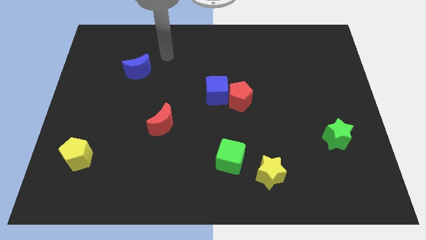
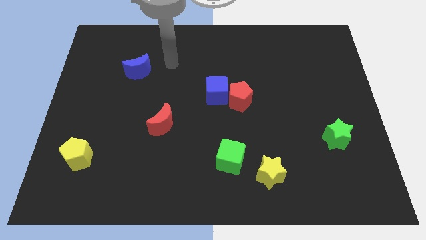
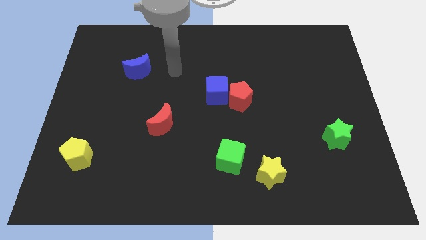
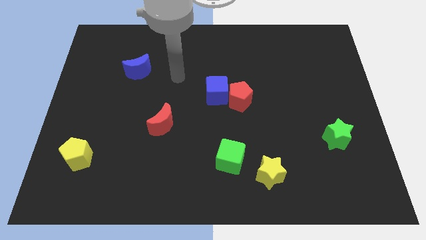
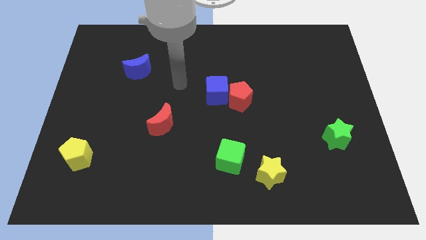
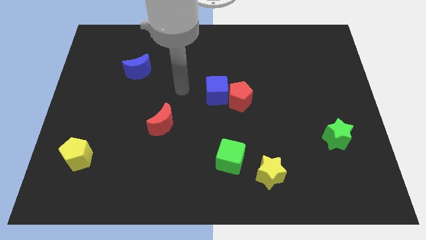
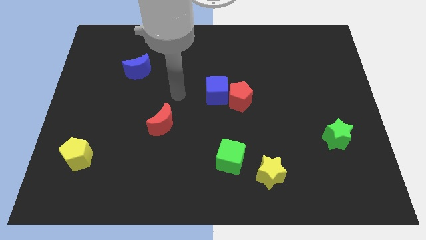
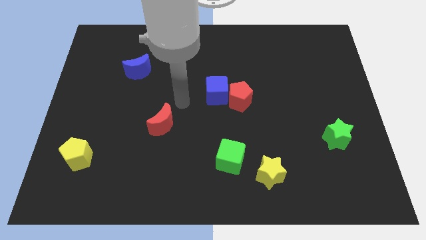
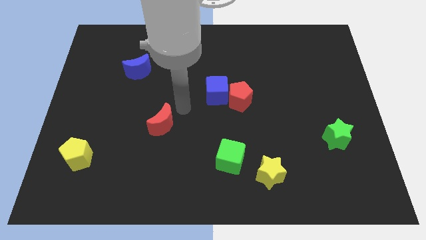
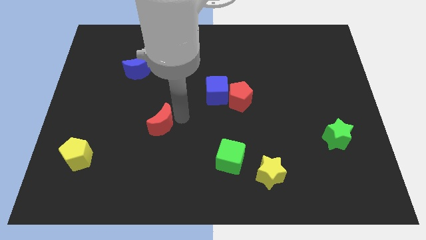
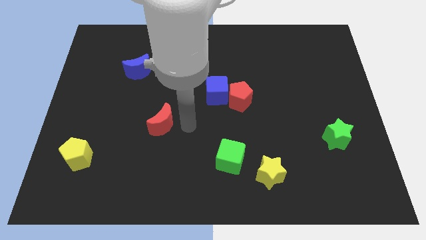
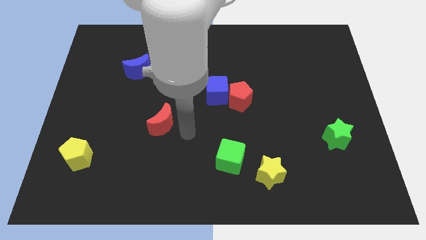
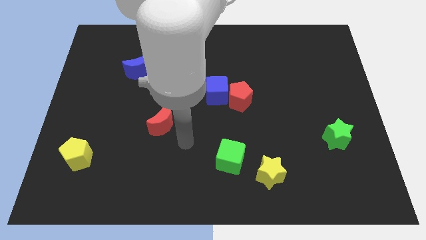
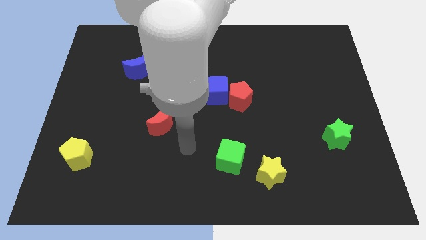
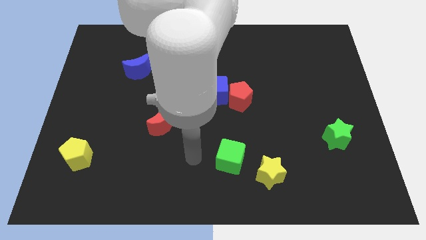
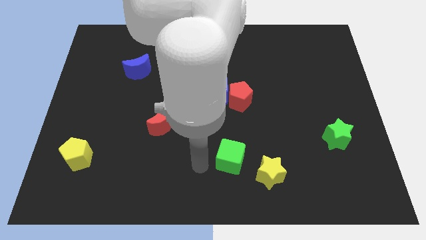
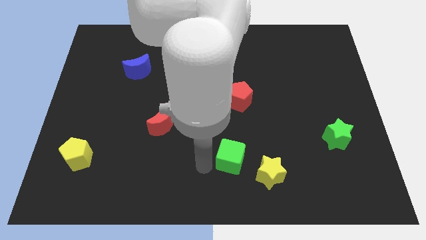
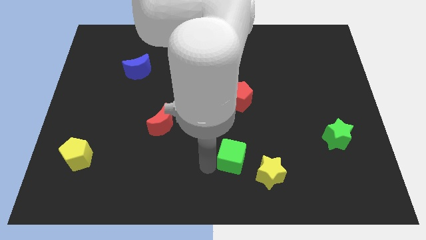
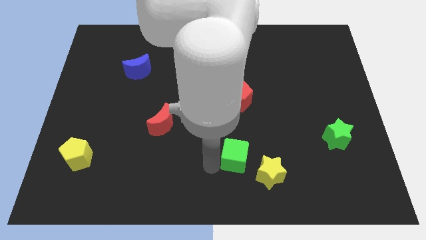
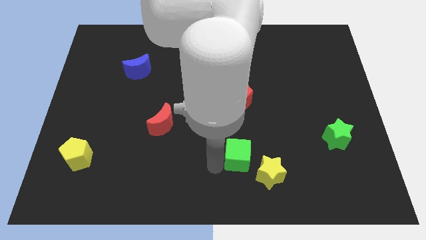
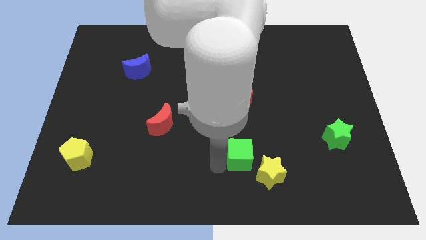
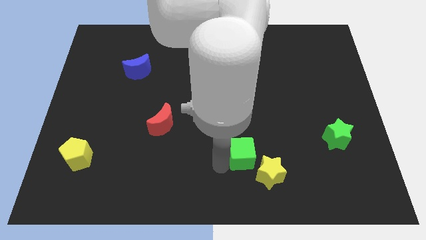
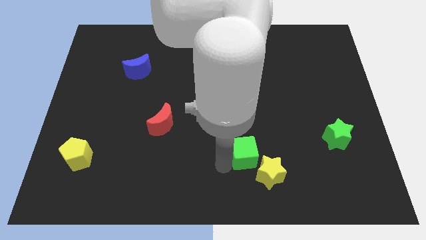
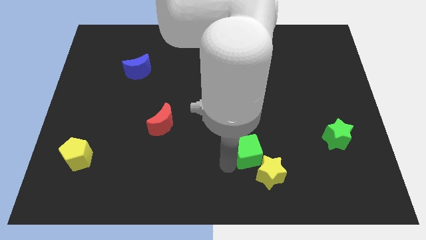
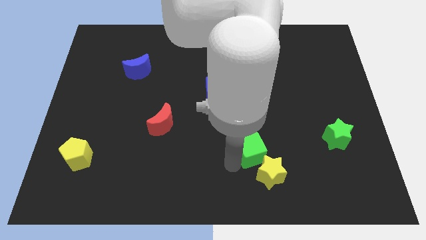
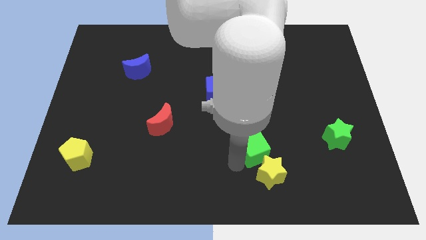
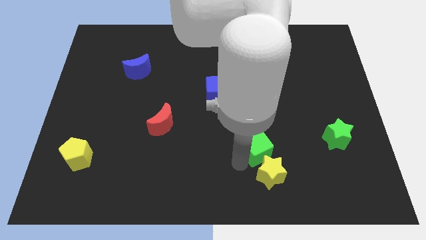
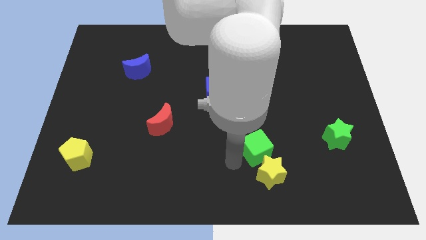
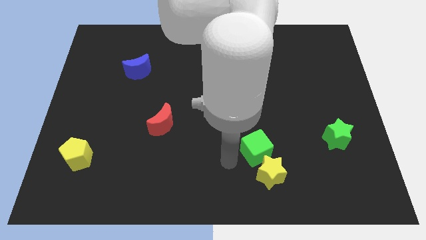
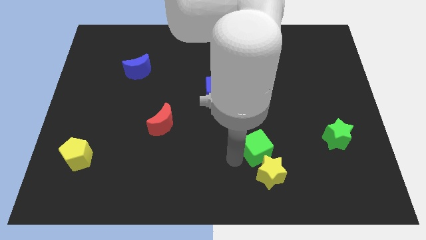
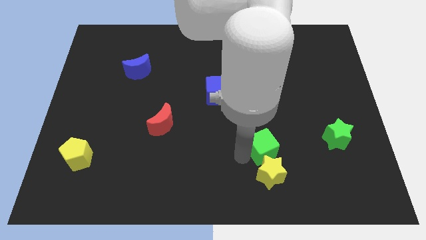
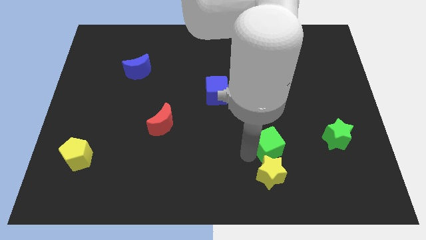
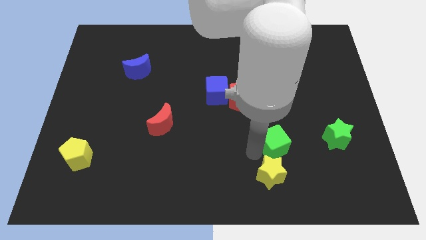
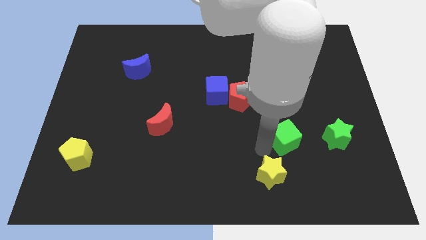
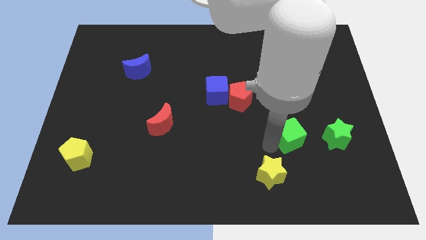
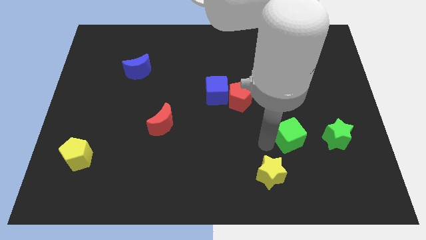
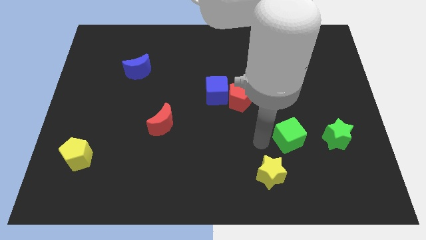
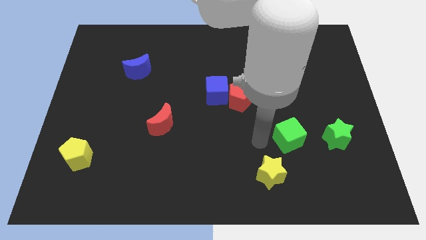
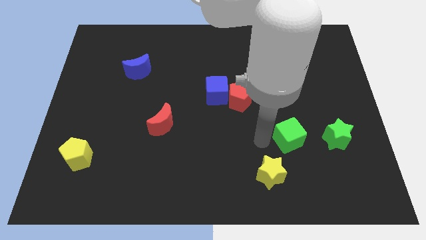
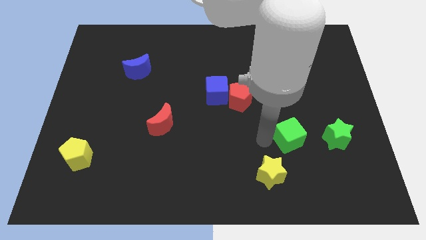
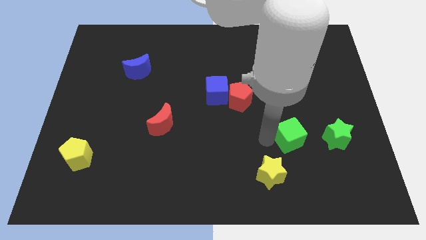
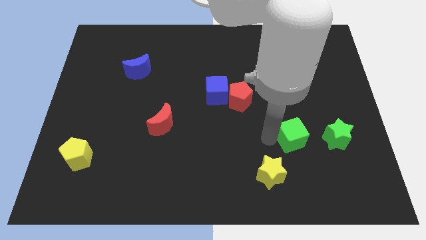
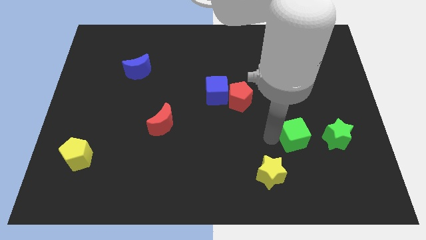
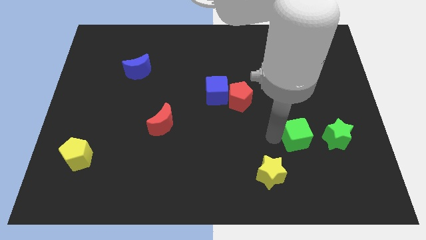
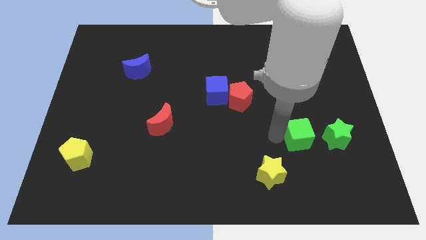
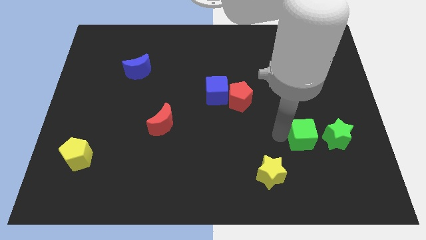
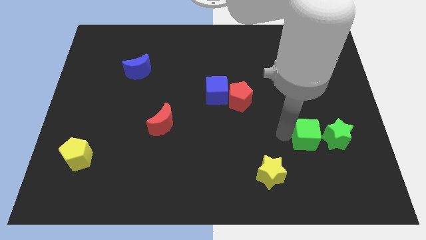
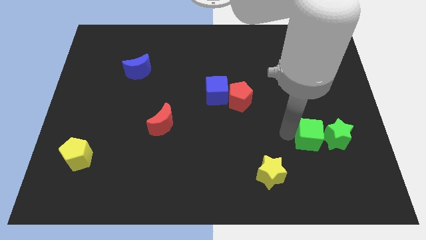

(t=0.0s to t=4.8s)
slide the green cube next to the green star

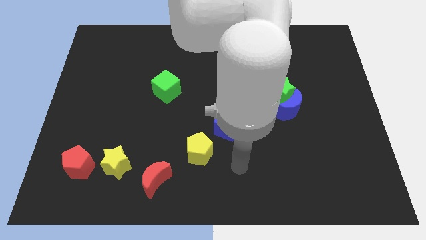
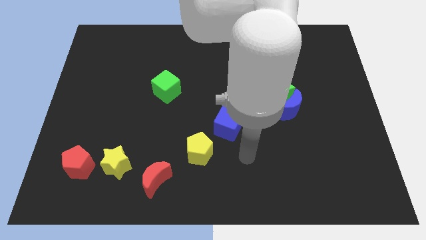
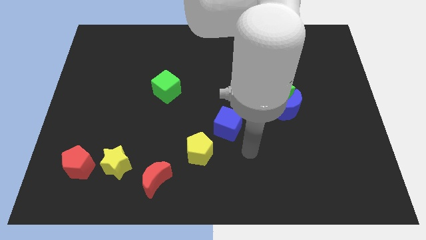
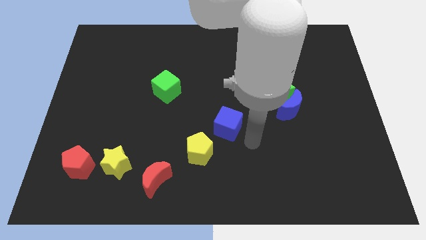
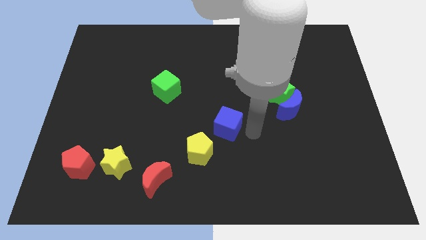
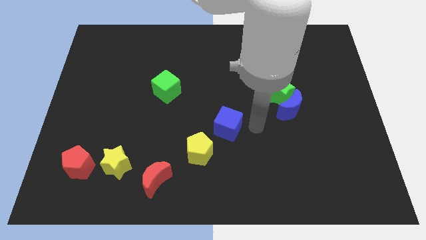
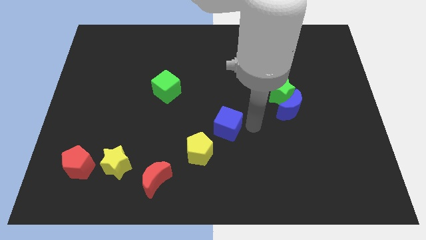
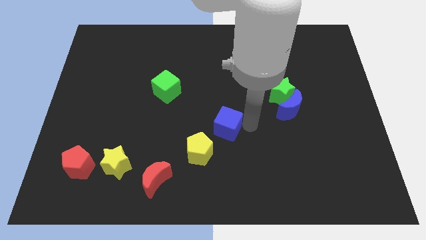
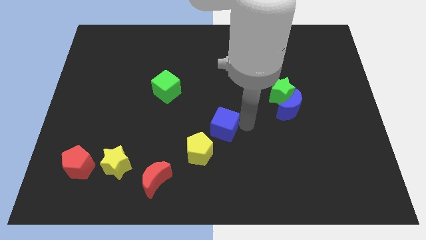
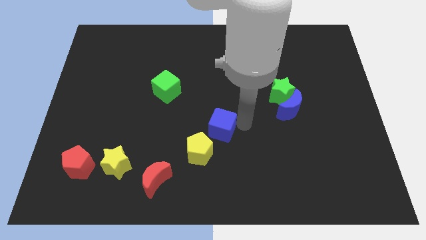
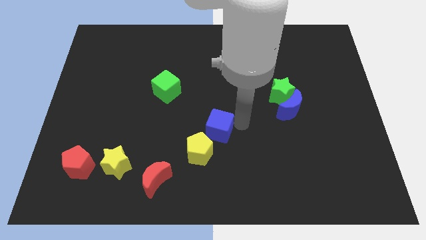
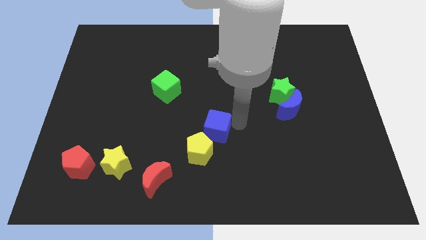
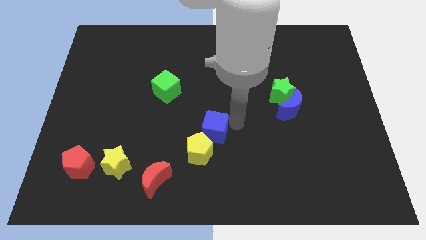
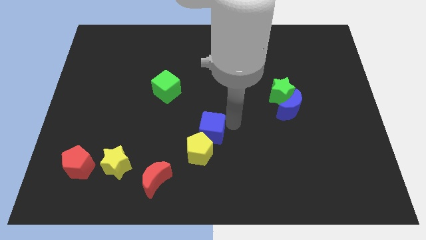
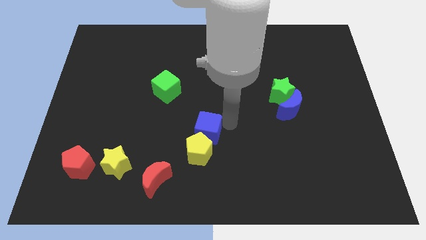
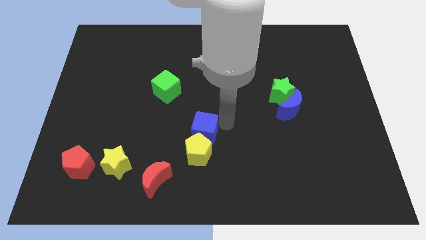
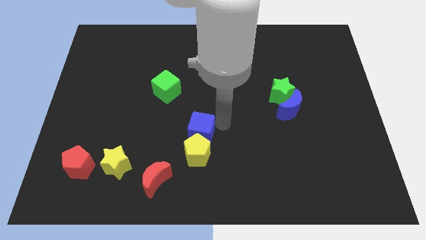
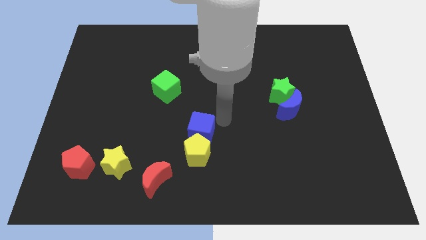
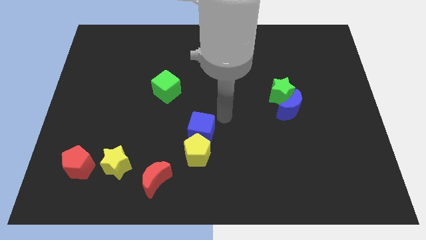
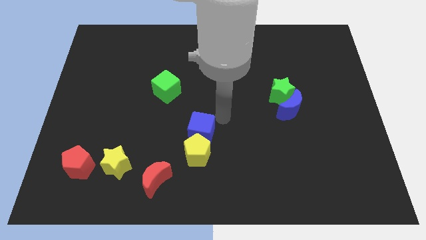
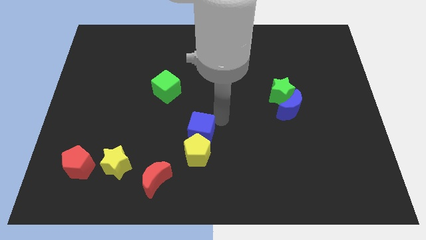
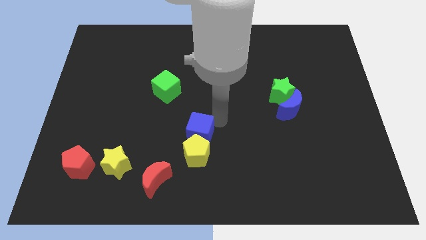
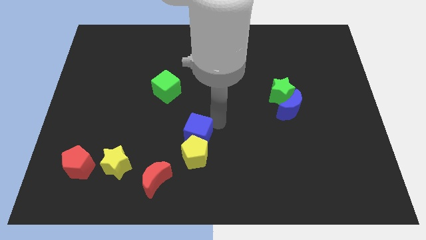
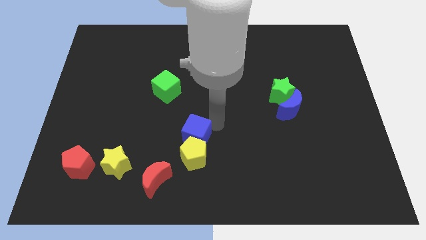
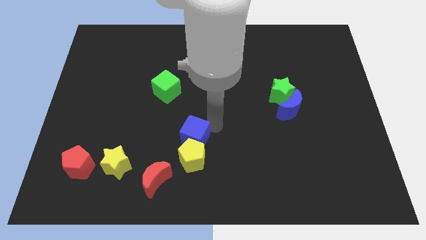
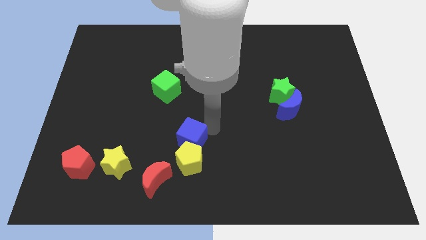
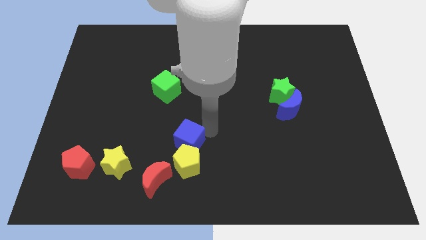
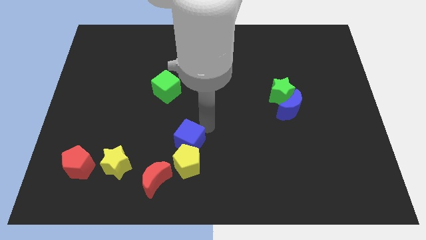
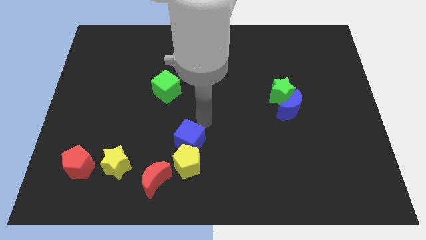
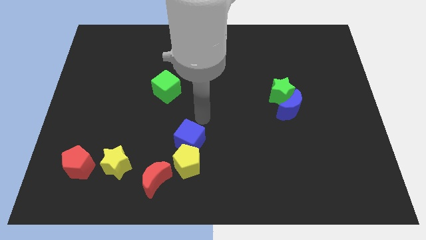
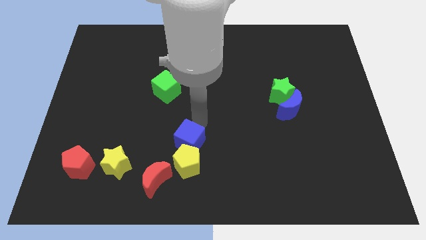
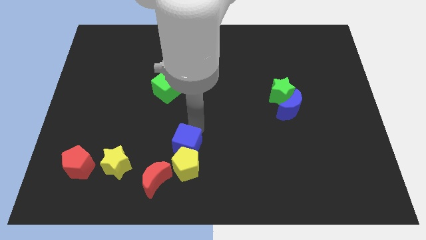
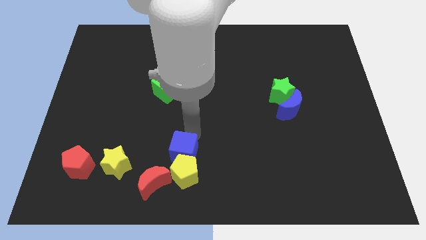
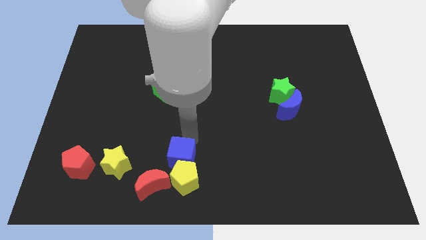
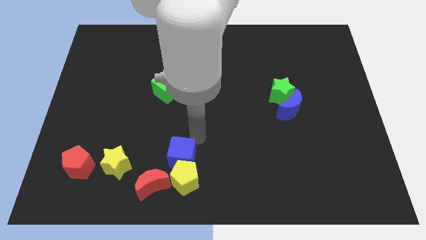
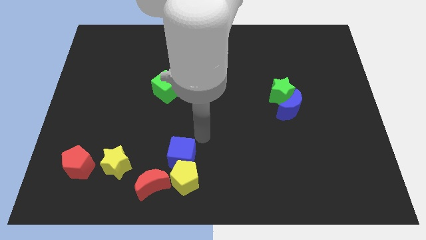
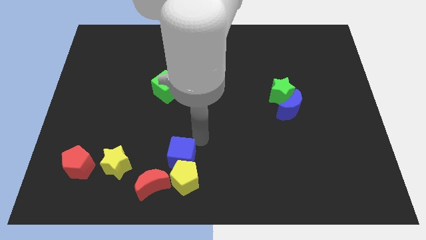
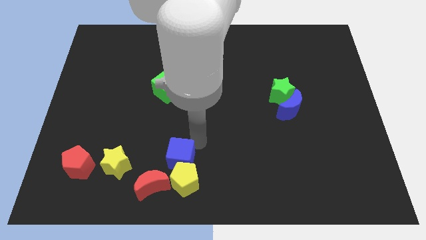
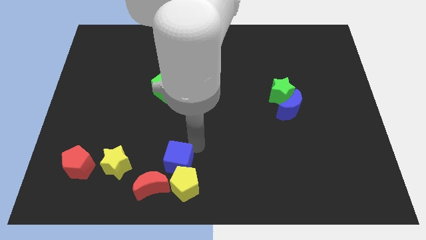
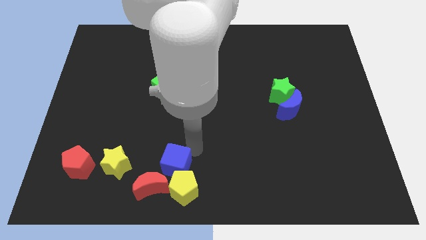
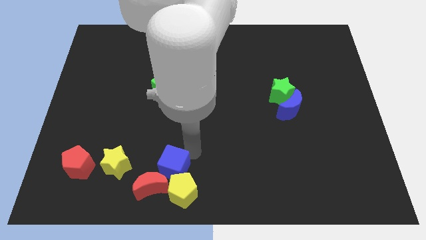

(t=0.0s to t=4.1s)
put the blue cube next to the red moon
